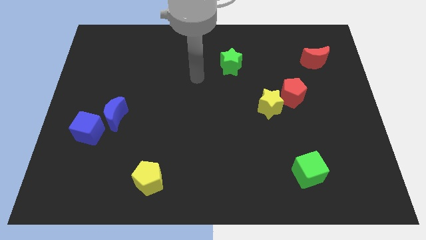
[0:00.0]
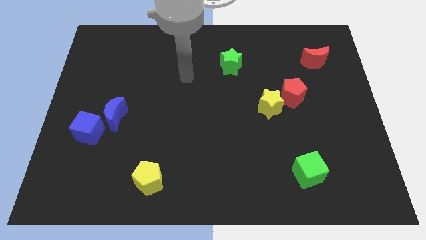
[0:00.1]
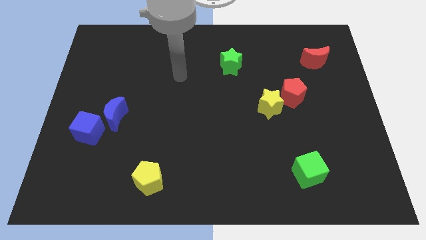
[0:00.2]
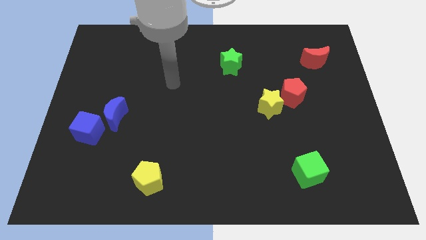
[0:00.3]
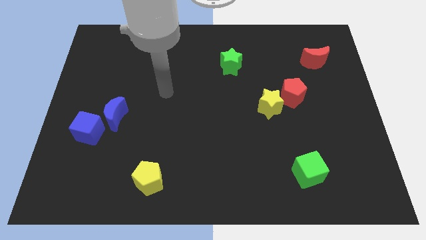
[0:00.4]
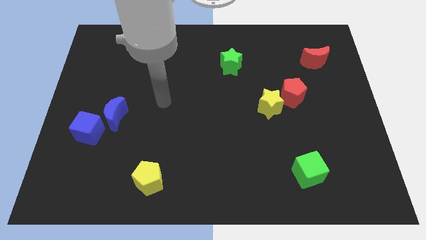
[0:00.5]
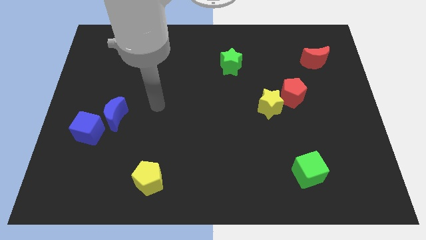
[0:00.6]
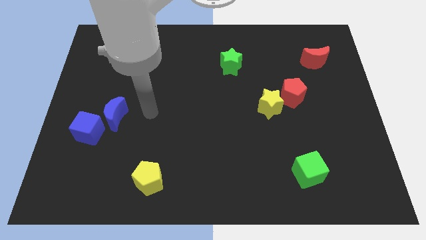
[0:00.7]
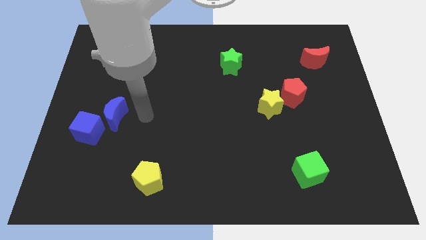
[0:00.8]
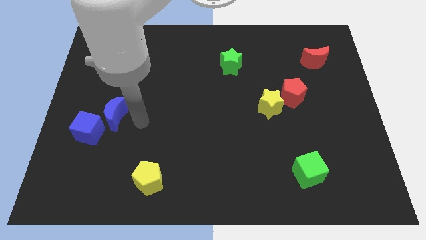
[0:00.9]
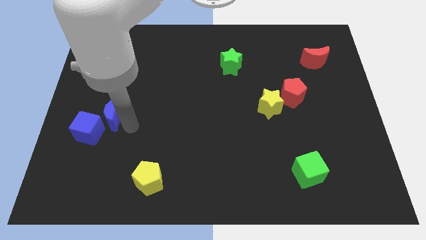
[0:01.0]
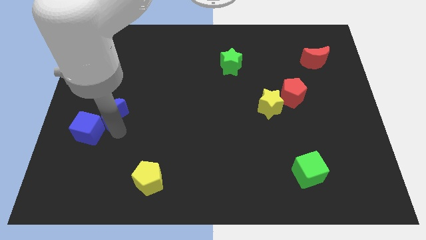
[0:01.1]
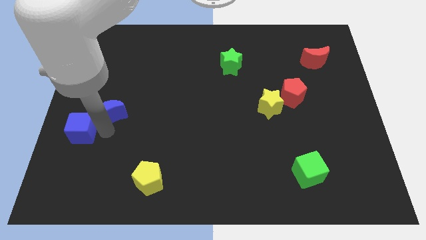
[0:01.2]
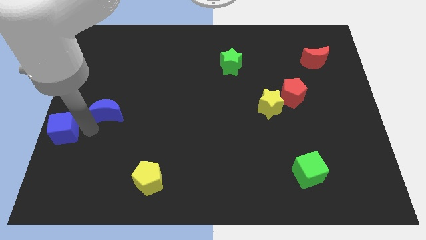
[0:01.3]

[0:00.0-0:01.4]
pull the blue moon apart from the blue cube

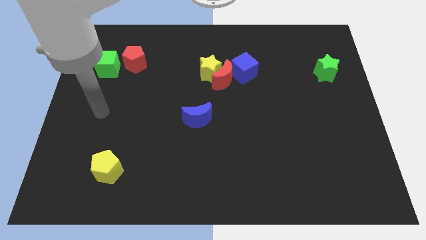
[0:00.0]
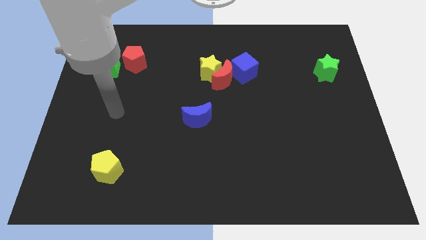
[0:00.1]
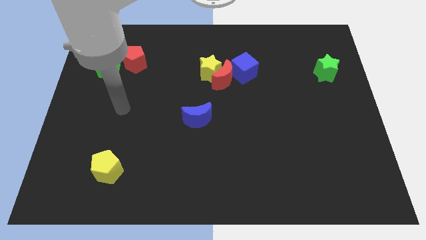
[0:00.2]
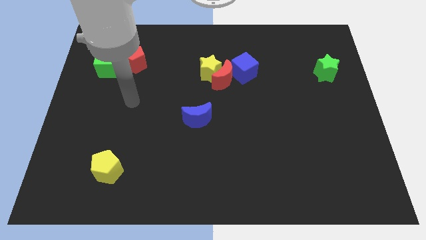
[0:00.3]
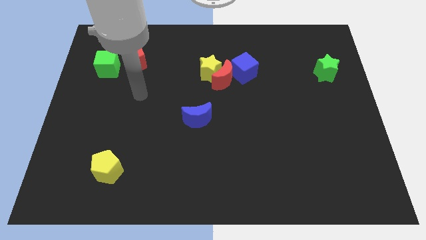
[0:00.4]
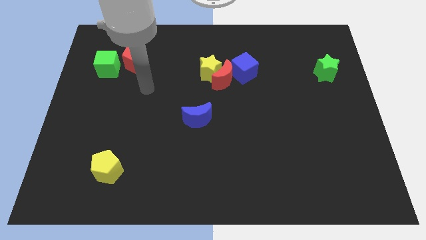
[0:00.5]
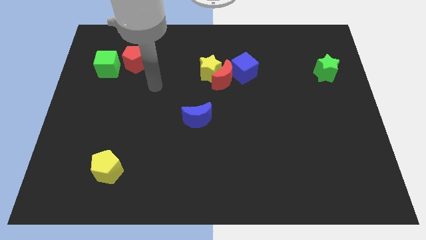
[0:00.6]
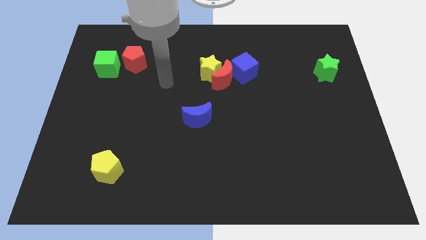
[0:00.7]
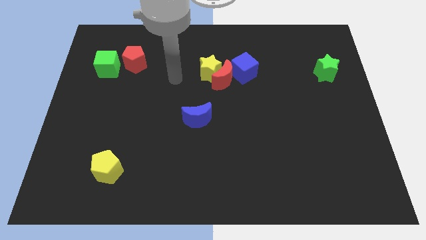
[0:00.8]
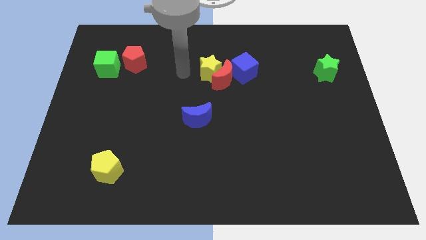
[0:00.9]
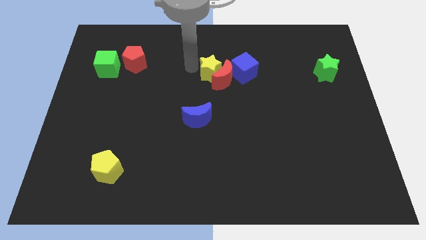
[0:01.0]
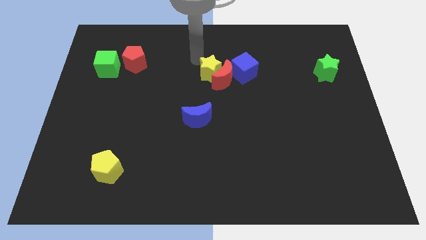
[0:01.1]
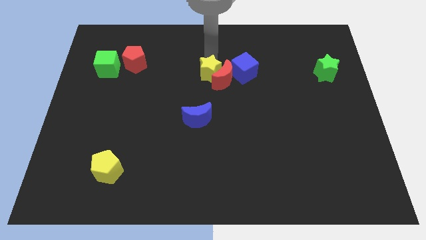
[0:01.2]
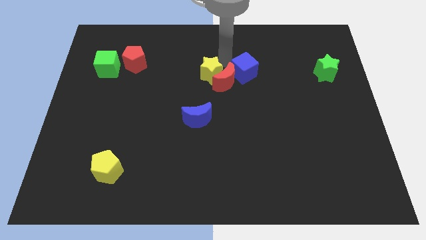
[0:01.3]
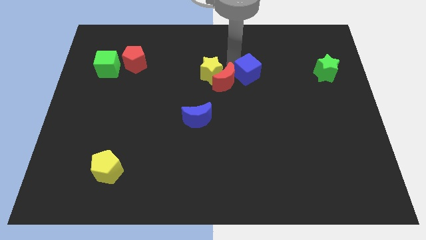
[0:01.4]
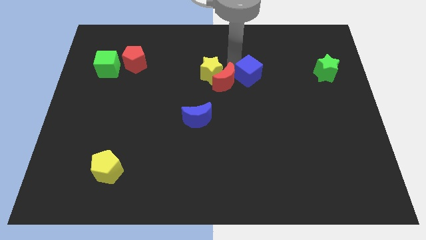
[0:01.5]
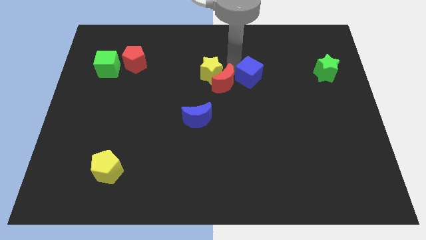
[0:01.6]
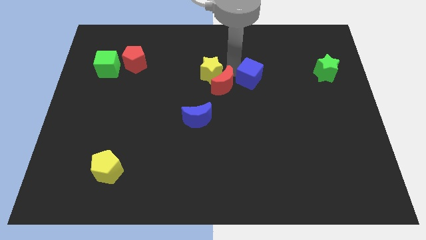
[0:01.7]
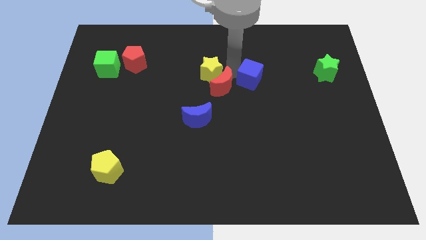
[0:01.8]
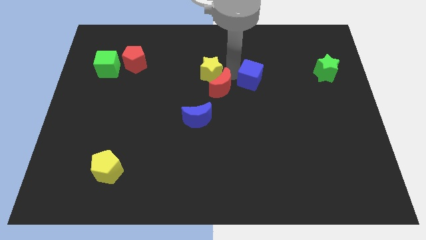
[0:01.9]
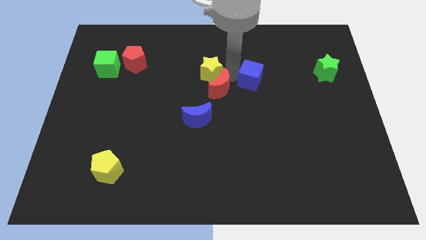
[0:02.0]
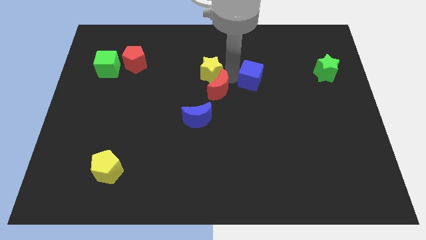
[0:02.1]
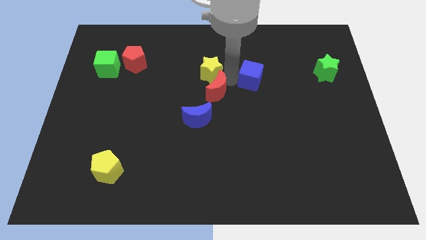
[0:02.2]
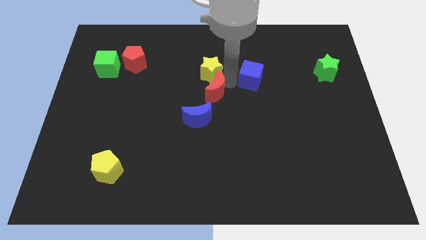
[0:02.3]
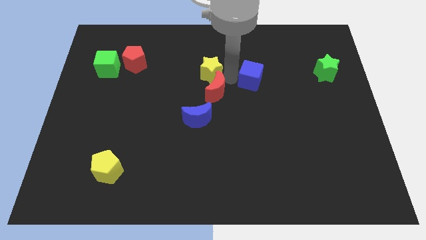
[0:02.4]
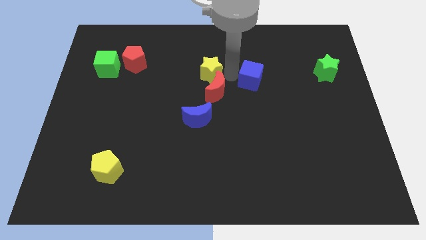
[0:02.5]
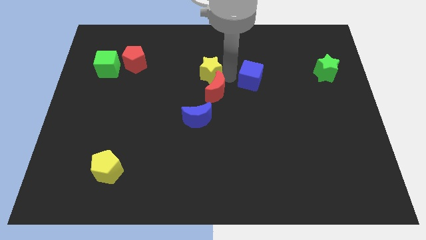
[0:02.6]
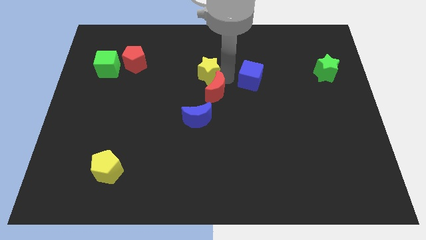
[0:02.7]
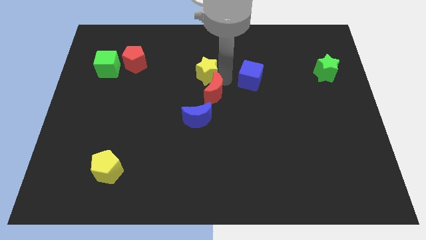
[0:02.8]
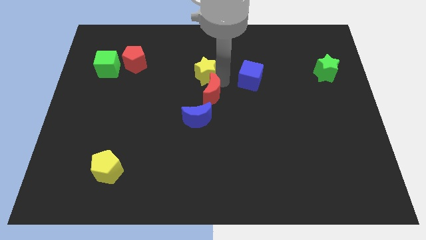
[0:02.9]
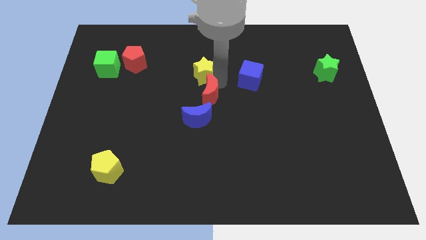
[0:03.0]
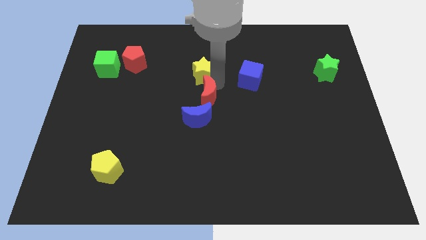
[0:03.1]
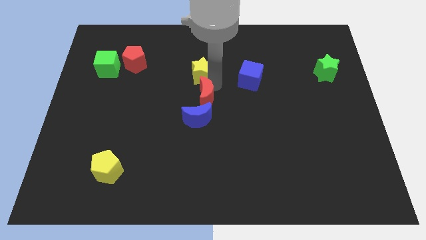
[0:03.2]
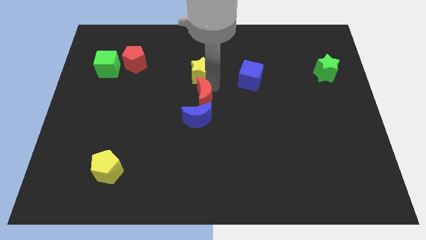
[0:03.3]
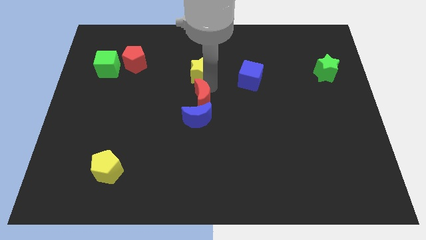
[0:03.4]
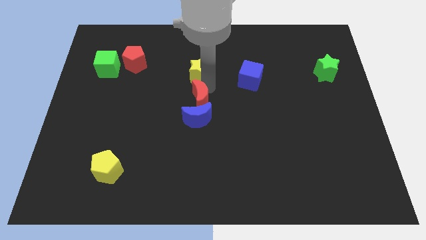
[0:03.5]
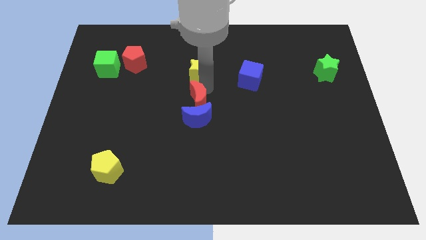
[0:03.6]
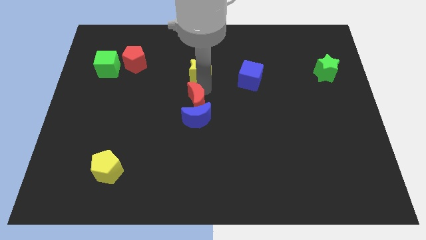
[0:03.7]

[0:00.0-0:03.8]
separate the red moon from the yellow star and blue cube

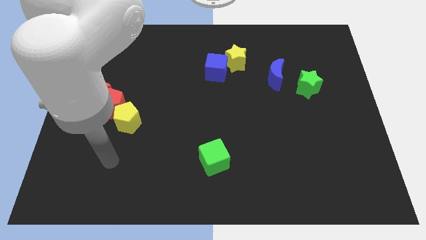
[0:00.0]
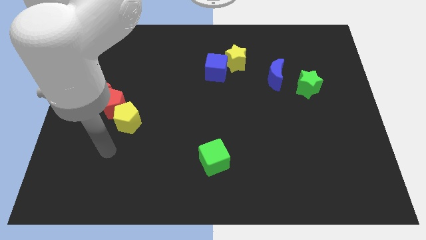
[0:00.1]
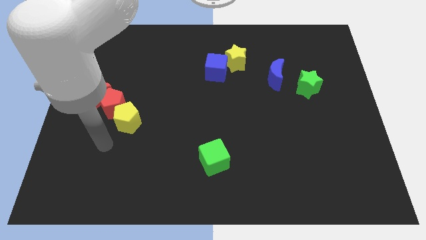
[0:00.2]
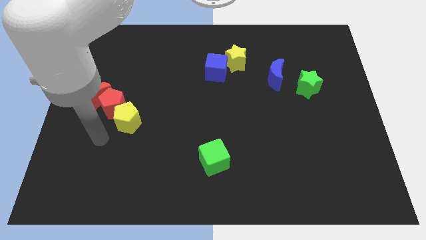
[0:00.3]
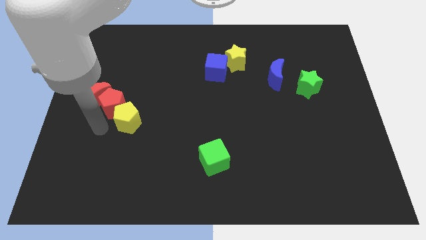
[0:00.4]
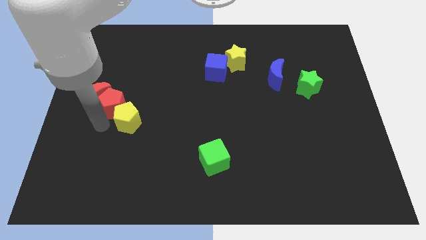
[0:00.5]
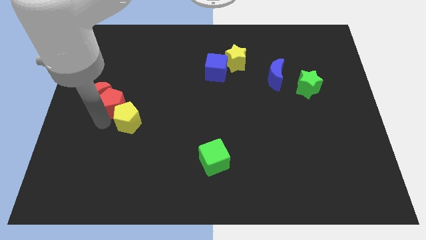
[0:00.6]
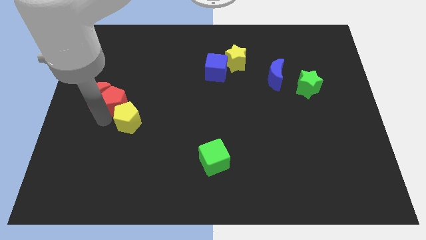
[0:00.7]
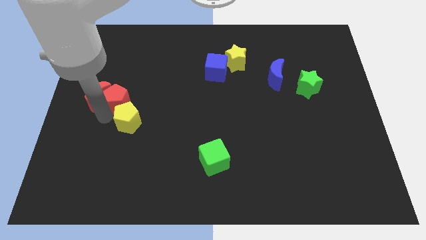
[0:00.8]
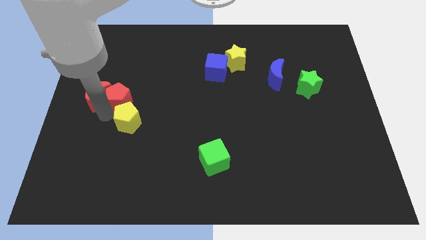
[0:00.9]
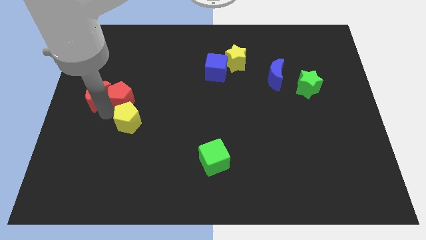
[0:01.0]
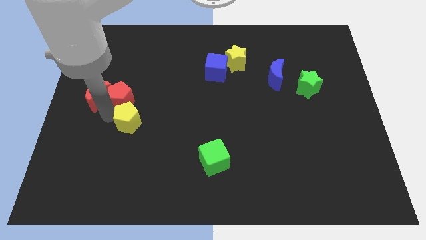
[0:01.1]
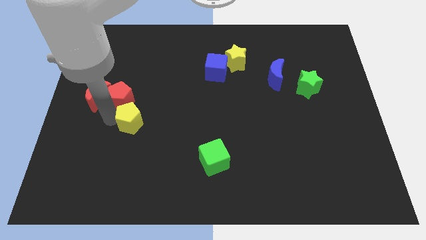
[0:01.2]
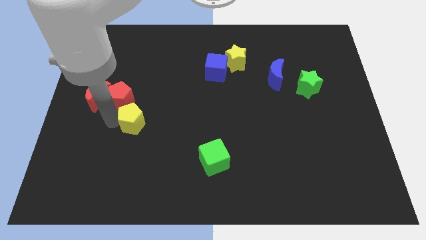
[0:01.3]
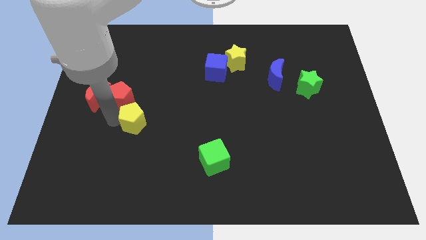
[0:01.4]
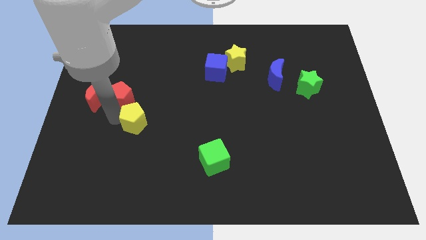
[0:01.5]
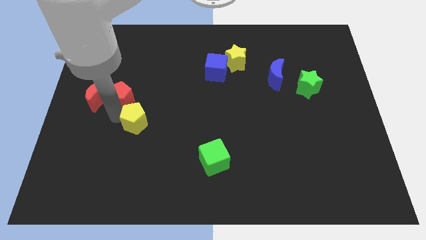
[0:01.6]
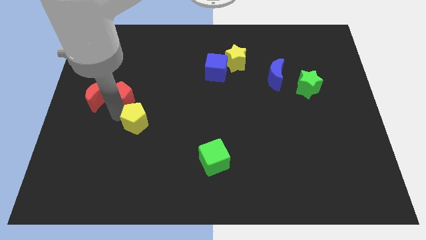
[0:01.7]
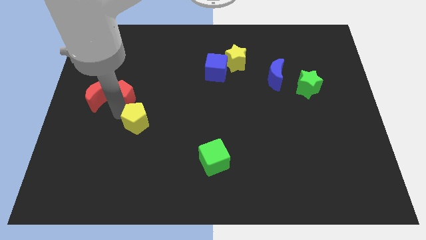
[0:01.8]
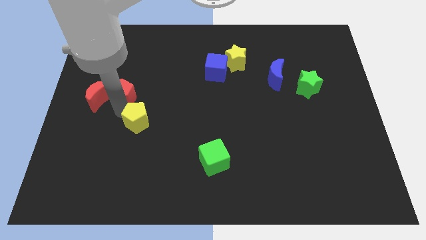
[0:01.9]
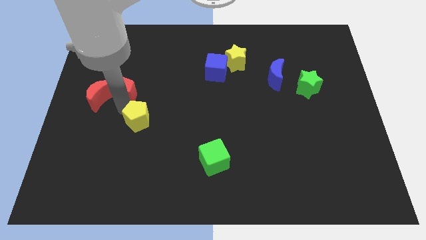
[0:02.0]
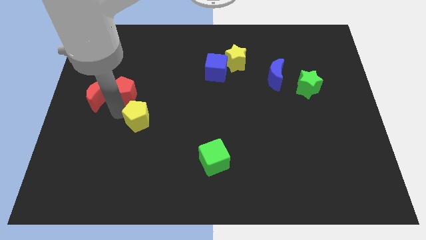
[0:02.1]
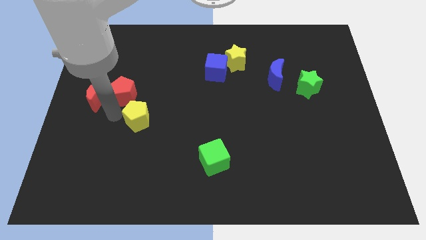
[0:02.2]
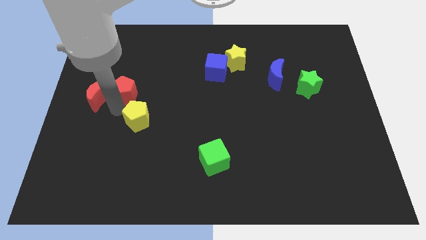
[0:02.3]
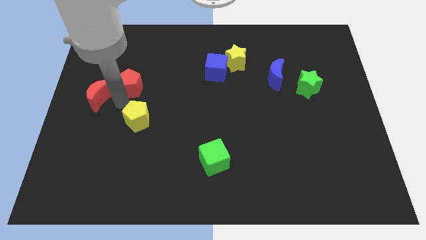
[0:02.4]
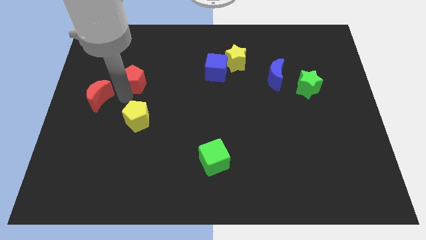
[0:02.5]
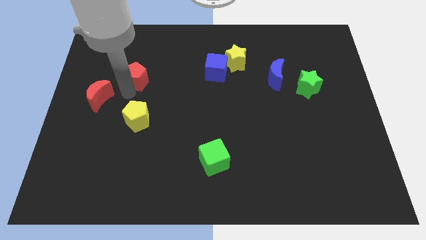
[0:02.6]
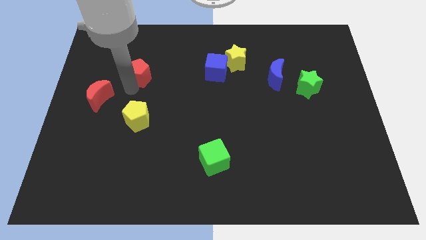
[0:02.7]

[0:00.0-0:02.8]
separate the red pentagon from the red moon and yellow pentagon

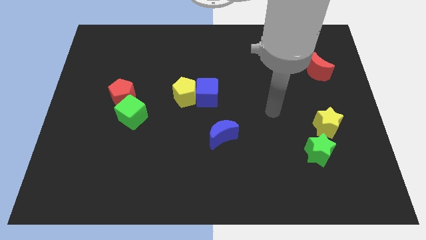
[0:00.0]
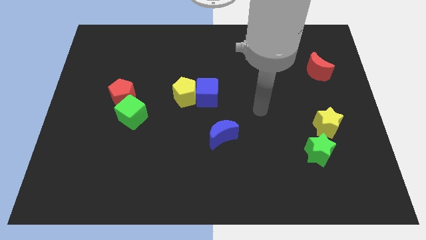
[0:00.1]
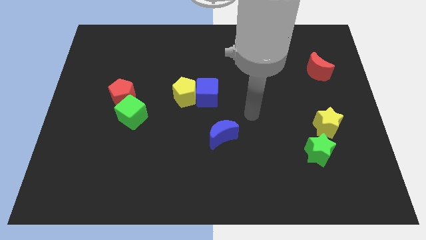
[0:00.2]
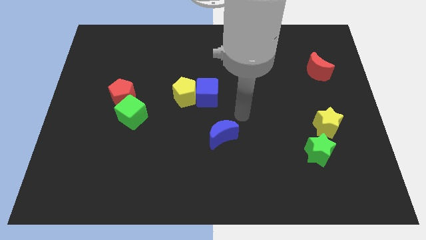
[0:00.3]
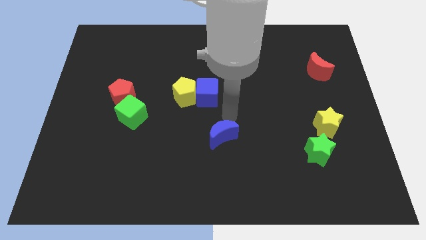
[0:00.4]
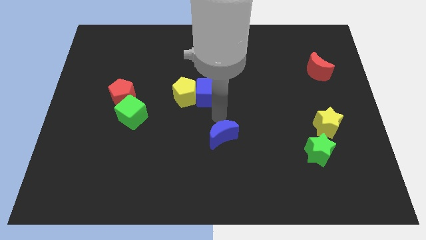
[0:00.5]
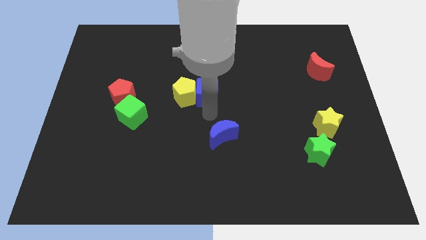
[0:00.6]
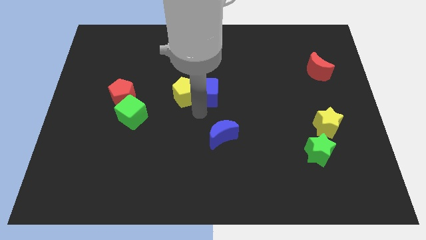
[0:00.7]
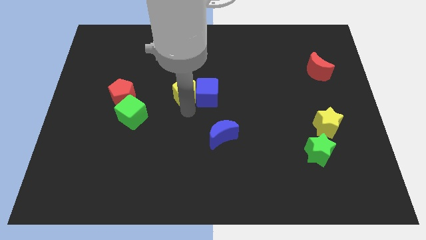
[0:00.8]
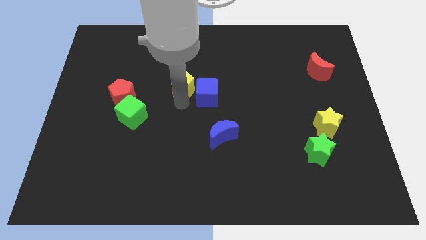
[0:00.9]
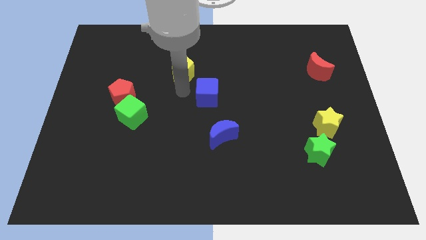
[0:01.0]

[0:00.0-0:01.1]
separate the blue cube from the yellow pentagon

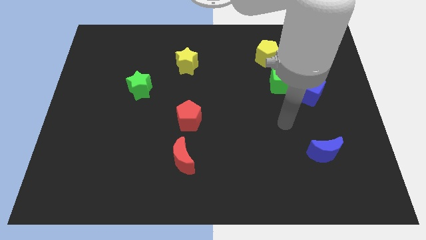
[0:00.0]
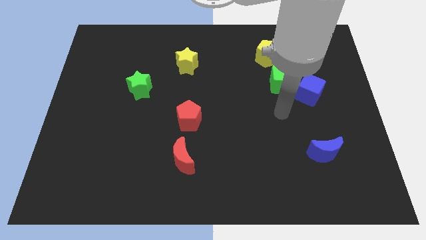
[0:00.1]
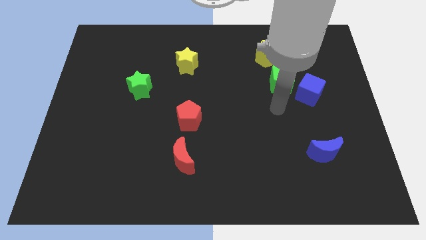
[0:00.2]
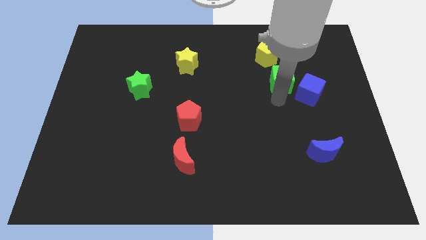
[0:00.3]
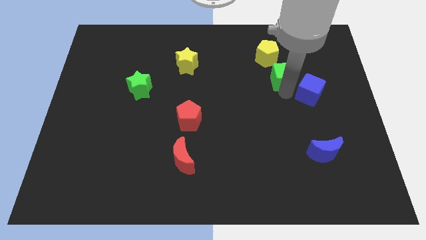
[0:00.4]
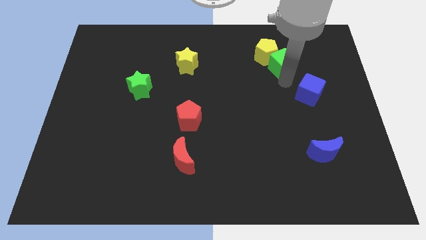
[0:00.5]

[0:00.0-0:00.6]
separate the blue cube from the green cube
